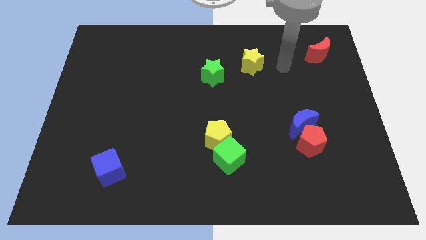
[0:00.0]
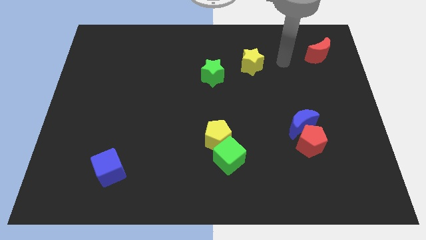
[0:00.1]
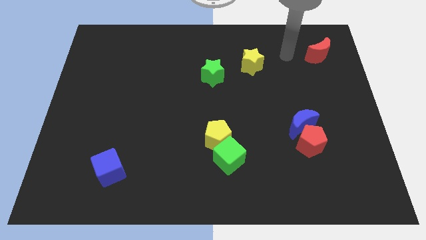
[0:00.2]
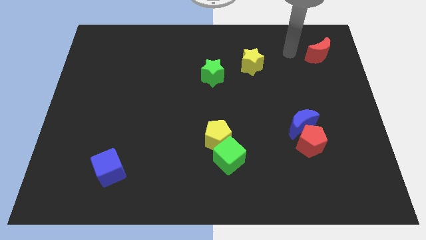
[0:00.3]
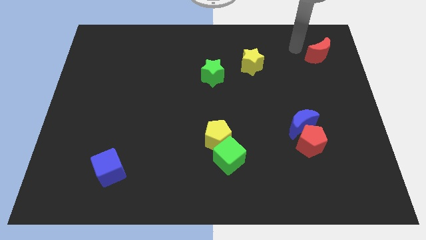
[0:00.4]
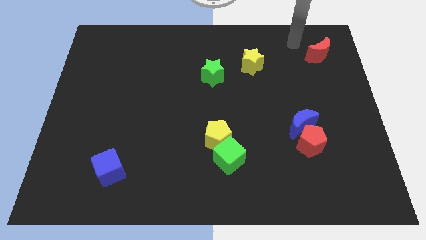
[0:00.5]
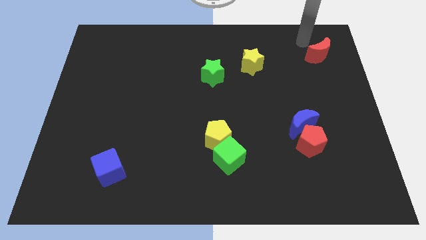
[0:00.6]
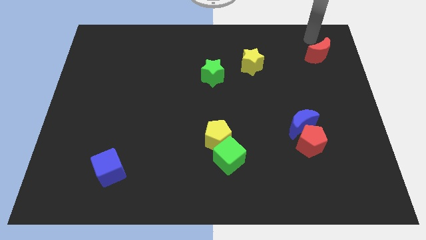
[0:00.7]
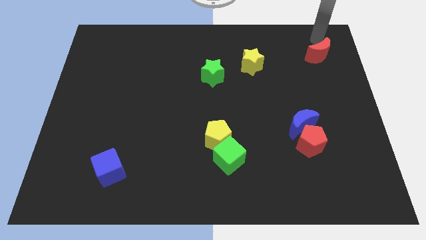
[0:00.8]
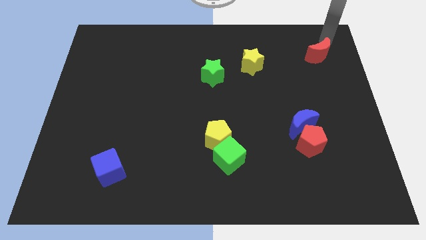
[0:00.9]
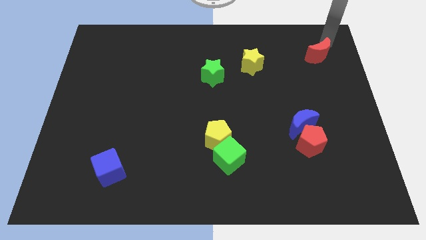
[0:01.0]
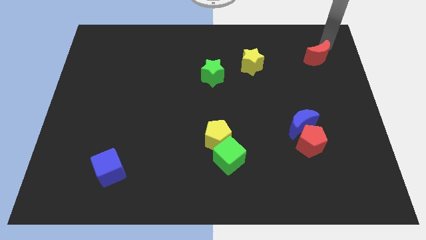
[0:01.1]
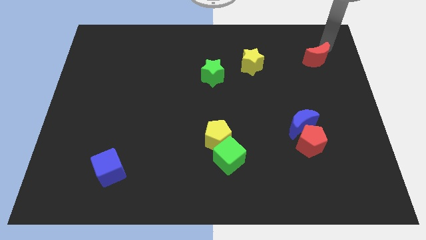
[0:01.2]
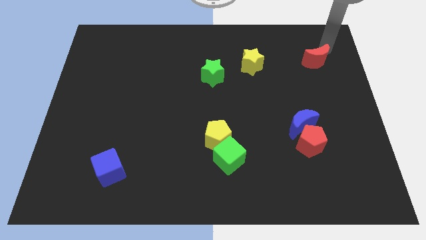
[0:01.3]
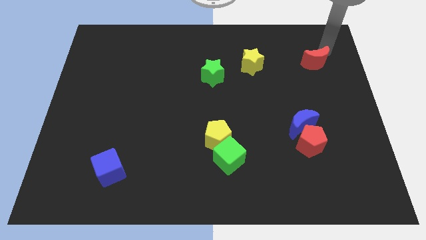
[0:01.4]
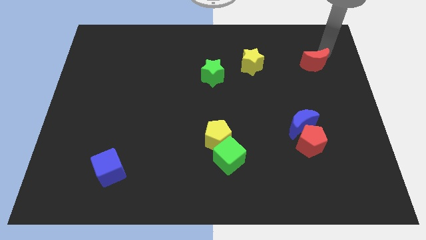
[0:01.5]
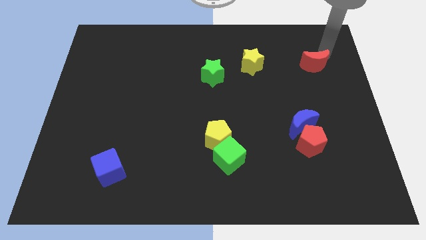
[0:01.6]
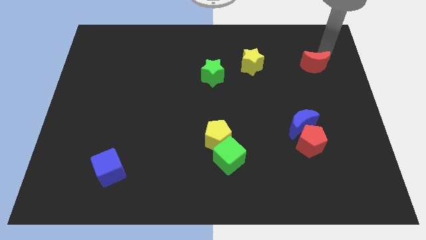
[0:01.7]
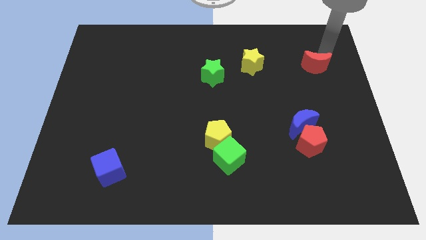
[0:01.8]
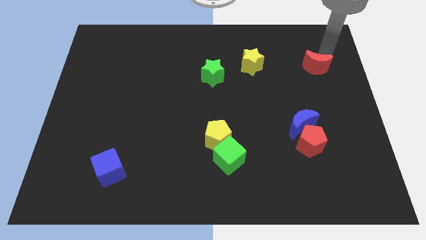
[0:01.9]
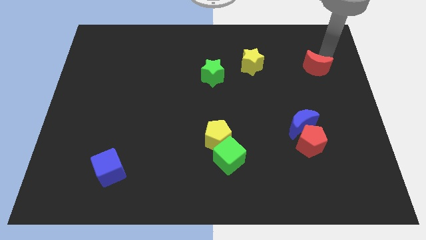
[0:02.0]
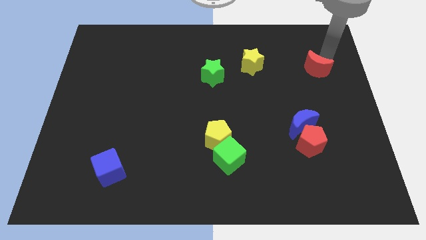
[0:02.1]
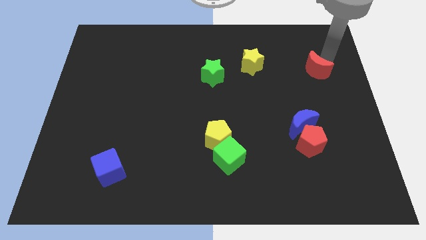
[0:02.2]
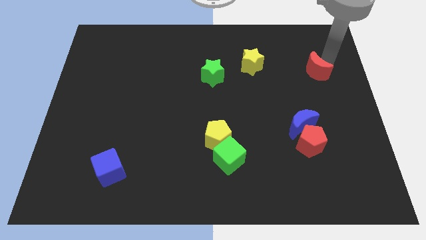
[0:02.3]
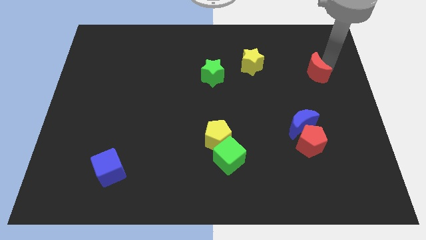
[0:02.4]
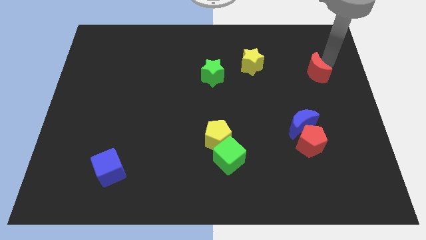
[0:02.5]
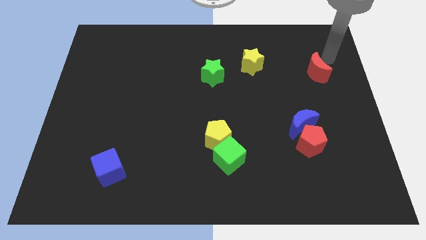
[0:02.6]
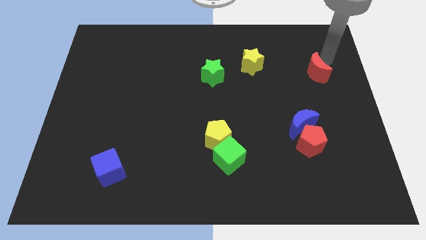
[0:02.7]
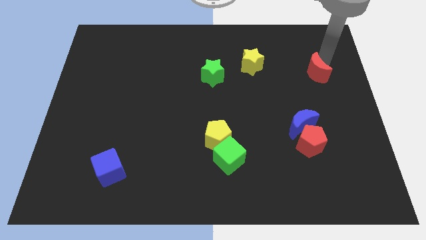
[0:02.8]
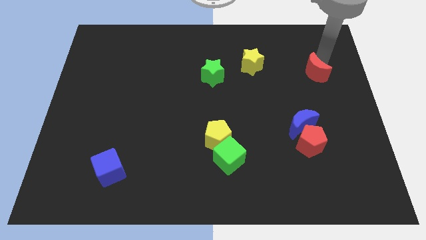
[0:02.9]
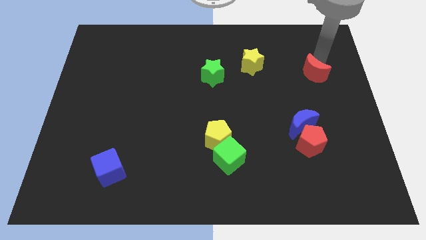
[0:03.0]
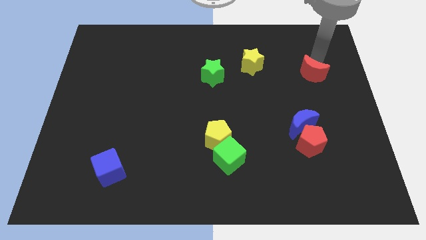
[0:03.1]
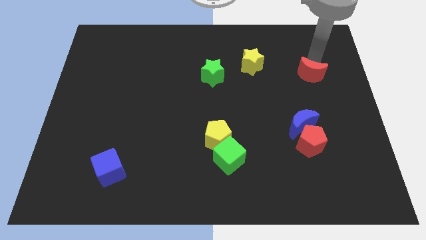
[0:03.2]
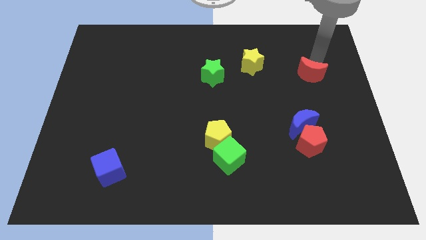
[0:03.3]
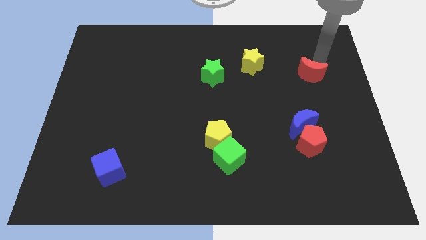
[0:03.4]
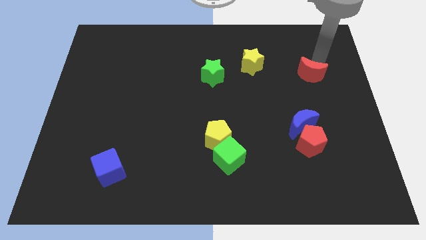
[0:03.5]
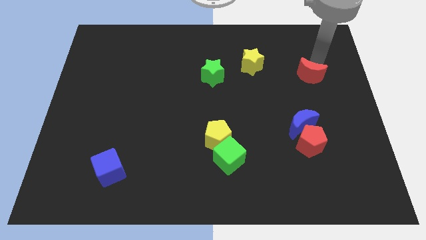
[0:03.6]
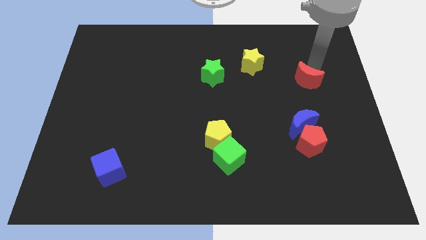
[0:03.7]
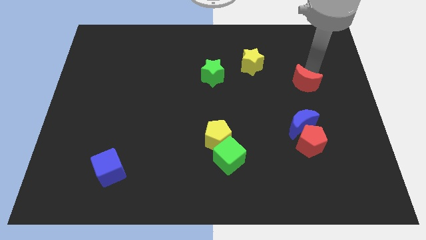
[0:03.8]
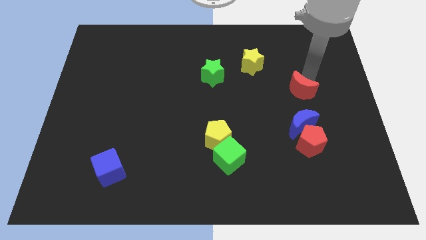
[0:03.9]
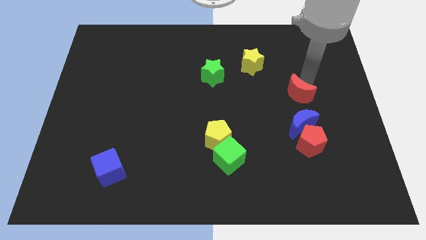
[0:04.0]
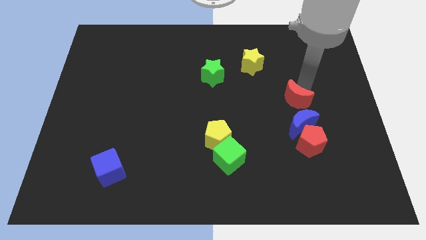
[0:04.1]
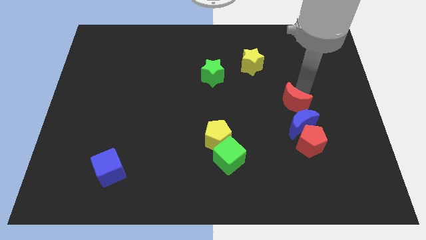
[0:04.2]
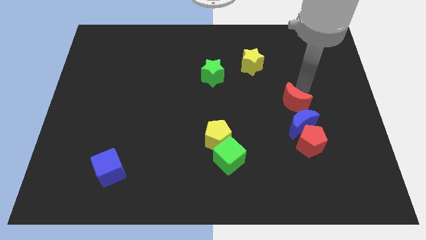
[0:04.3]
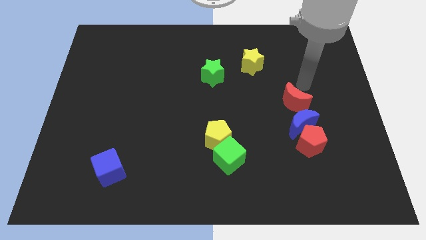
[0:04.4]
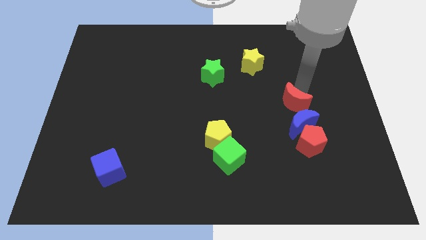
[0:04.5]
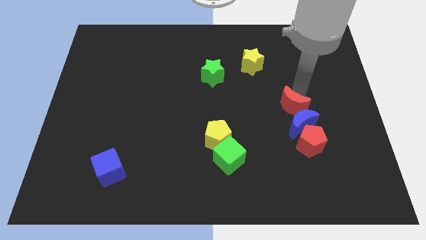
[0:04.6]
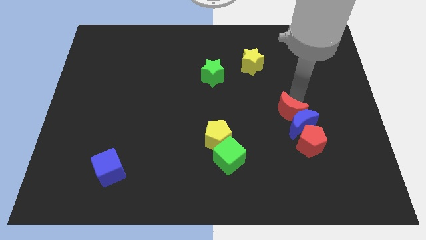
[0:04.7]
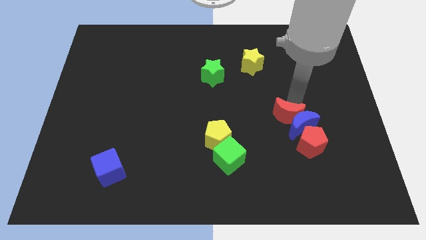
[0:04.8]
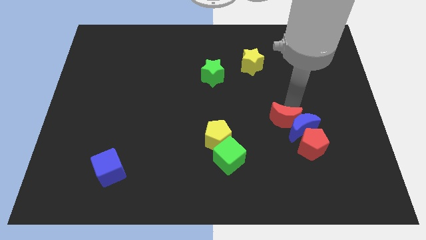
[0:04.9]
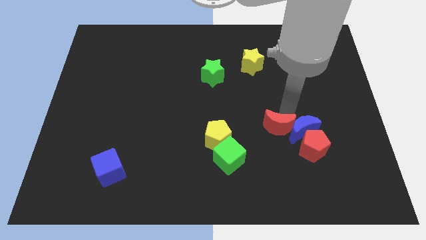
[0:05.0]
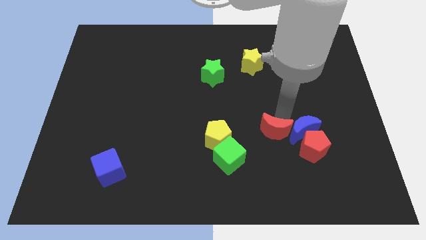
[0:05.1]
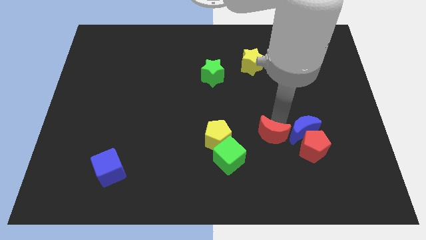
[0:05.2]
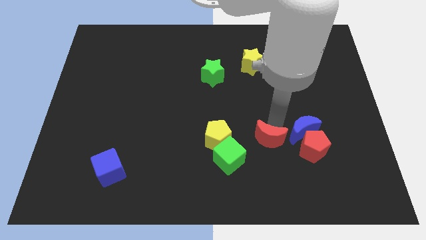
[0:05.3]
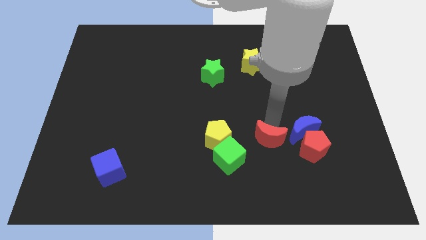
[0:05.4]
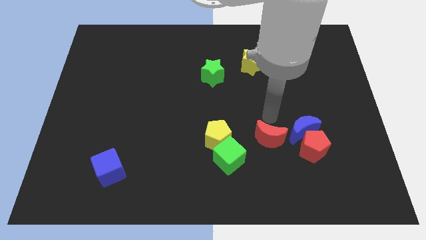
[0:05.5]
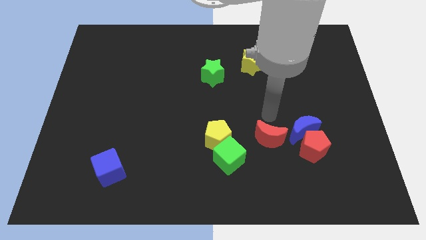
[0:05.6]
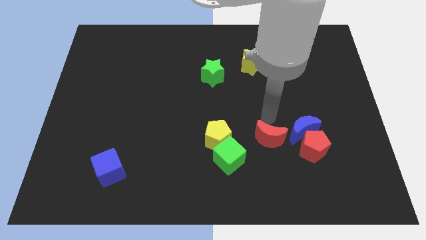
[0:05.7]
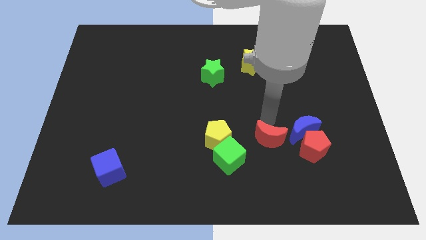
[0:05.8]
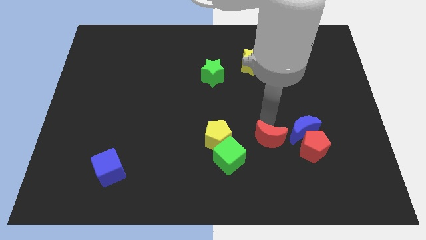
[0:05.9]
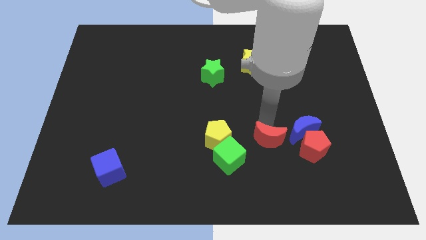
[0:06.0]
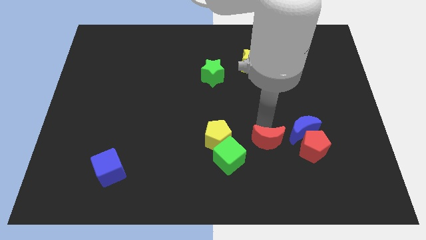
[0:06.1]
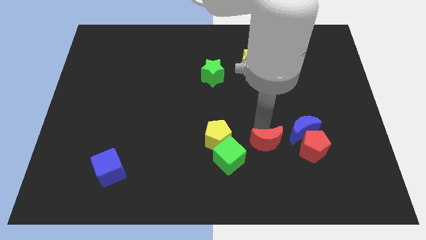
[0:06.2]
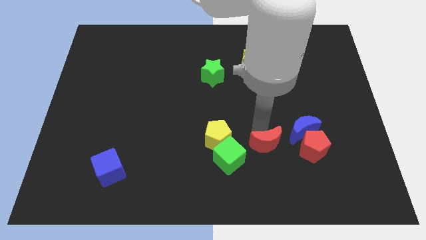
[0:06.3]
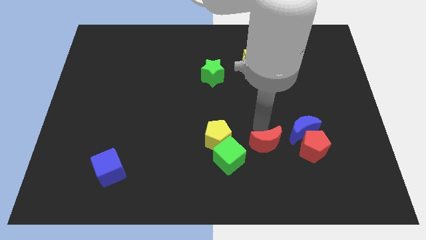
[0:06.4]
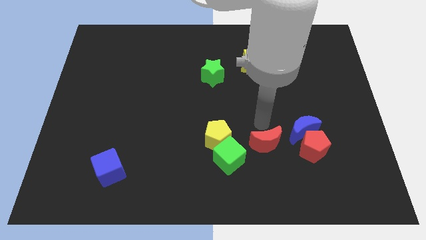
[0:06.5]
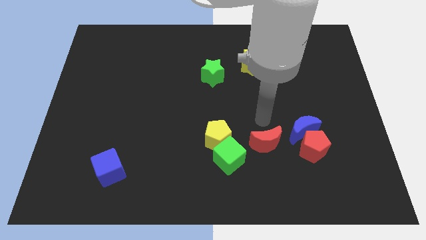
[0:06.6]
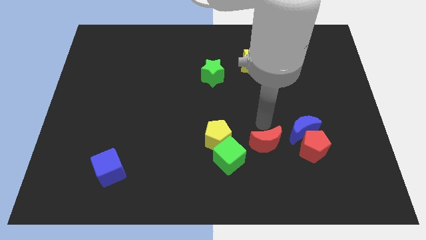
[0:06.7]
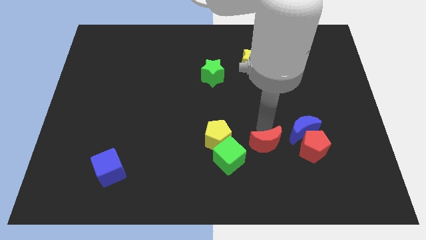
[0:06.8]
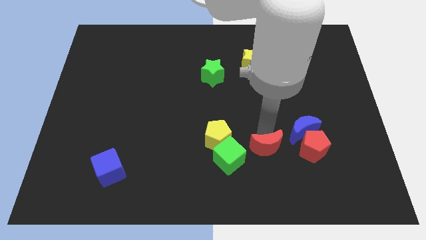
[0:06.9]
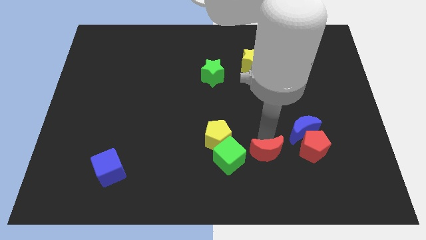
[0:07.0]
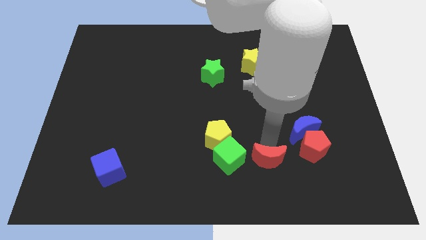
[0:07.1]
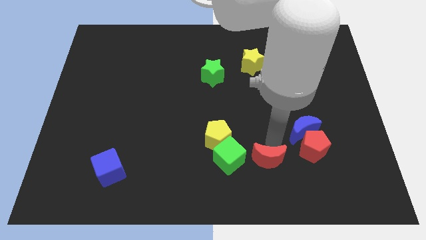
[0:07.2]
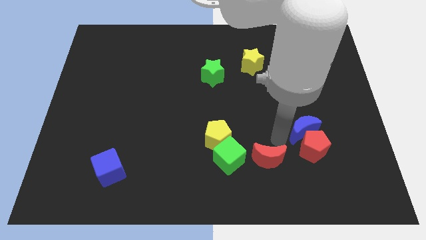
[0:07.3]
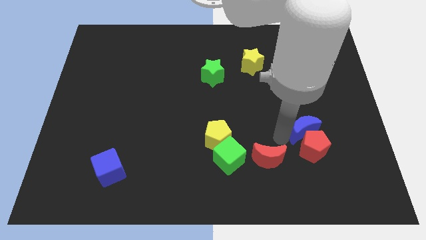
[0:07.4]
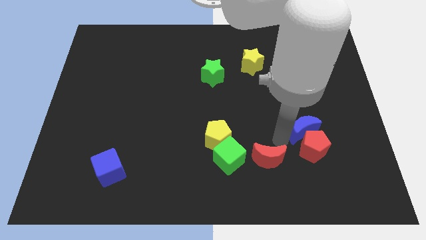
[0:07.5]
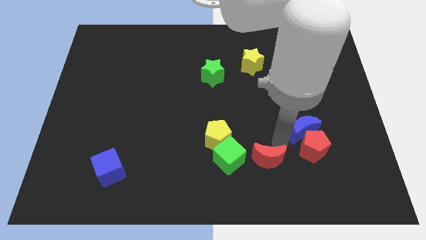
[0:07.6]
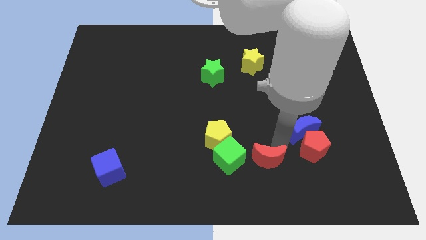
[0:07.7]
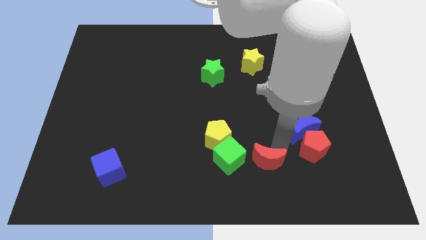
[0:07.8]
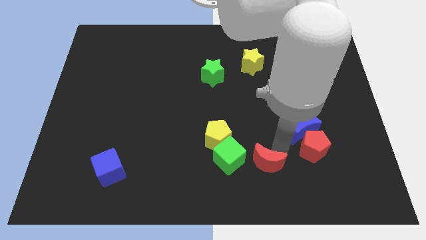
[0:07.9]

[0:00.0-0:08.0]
put the red moon to the bottom right side of the green cube
